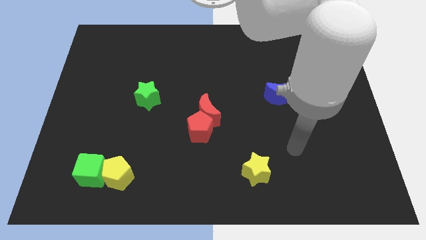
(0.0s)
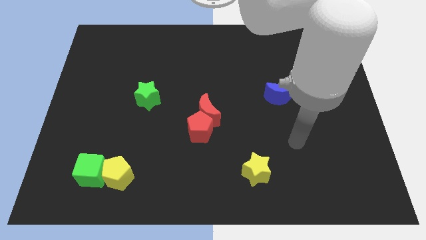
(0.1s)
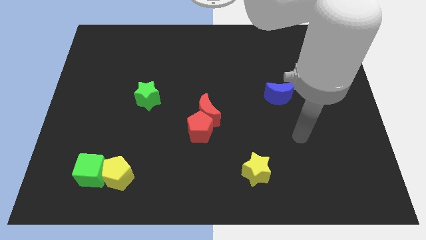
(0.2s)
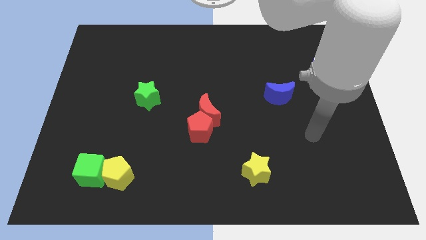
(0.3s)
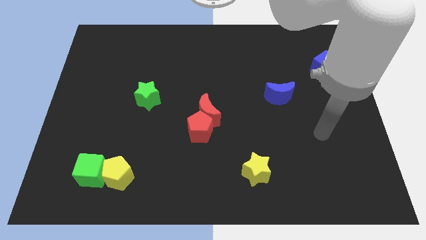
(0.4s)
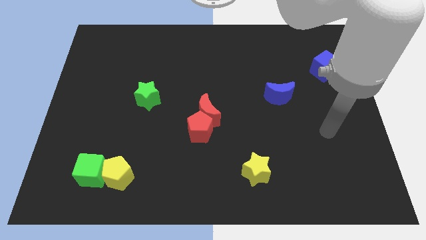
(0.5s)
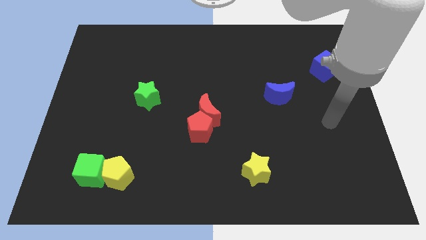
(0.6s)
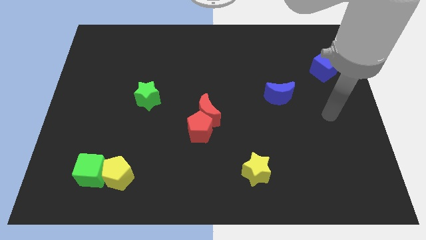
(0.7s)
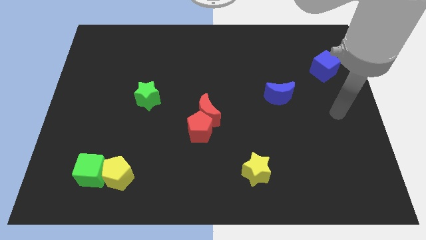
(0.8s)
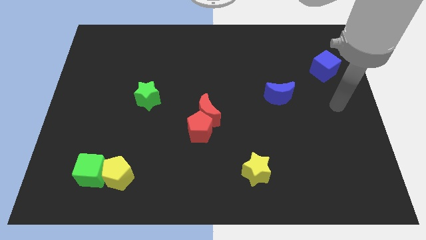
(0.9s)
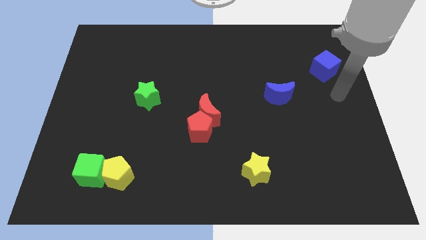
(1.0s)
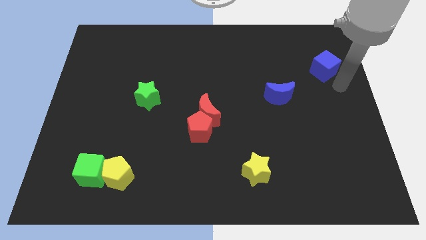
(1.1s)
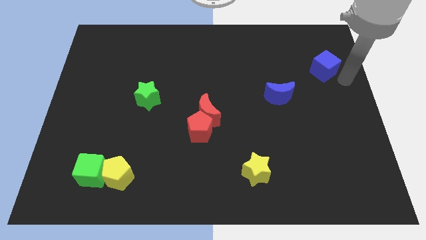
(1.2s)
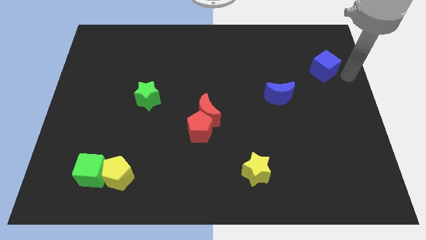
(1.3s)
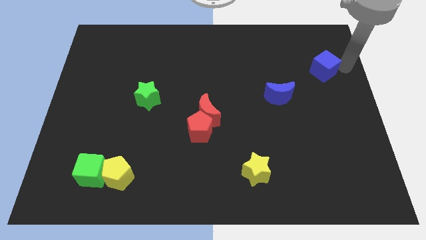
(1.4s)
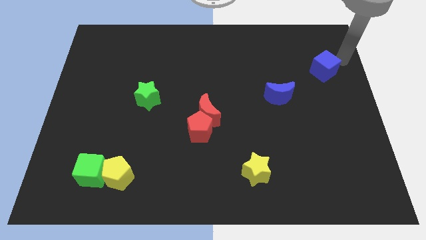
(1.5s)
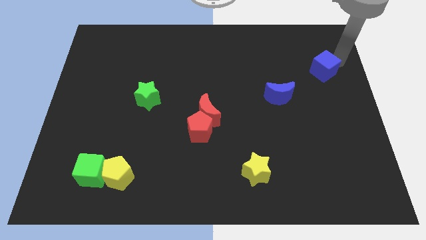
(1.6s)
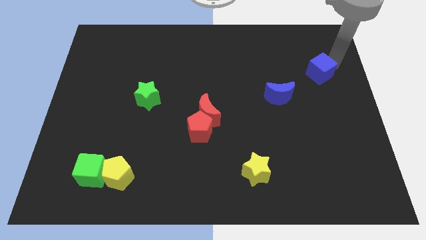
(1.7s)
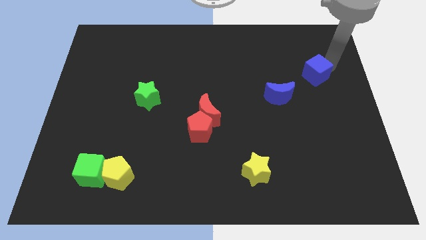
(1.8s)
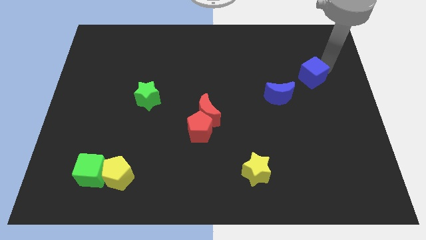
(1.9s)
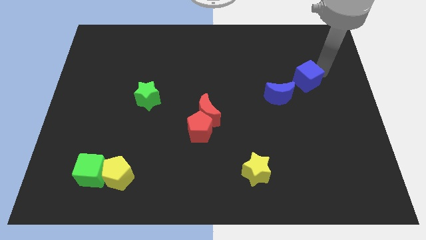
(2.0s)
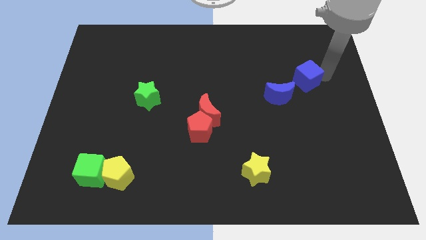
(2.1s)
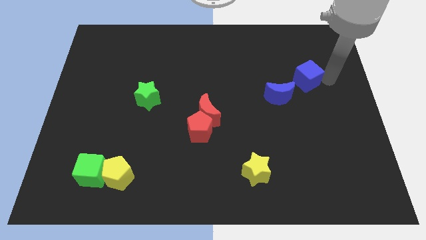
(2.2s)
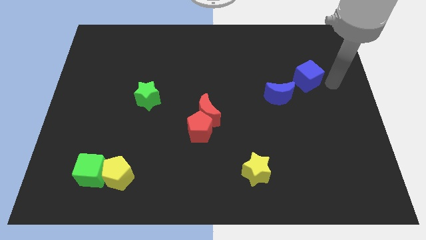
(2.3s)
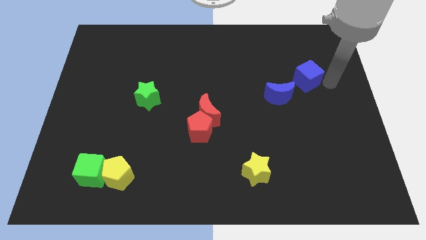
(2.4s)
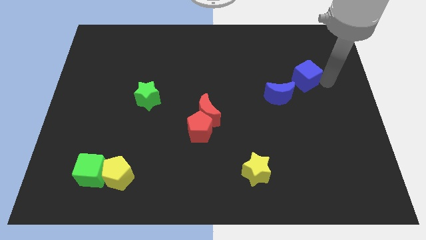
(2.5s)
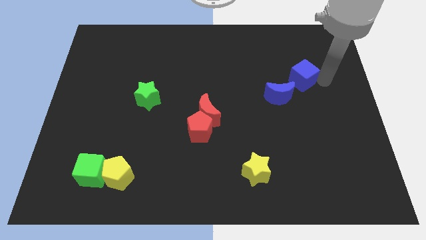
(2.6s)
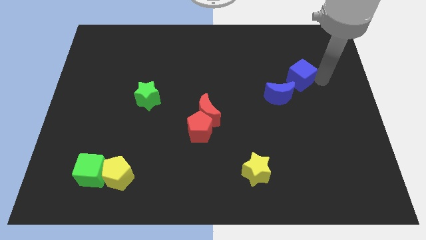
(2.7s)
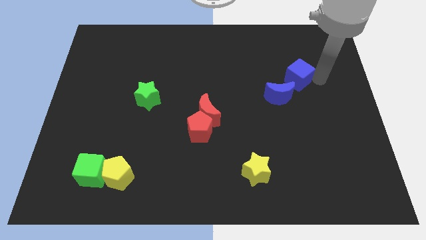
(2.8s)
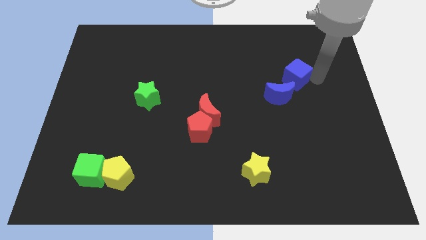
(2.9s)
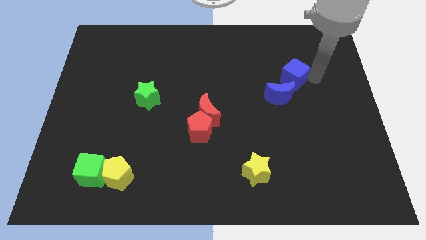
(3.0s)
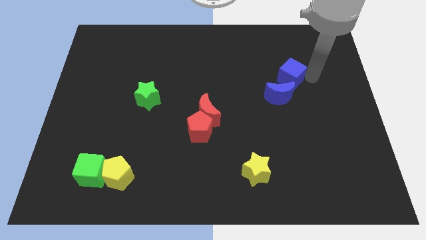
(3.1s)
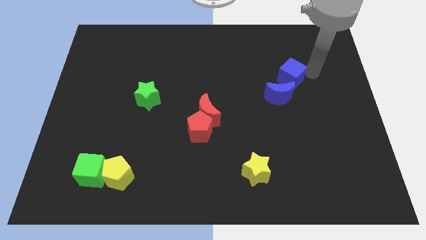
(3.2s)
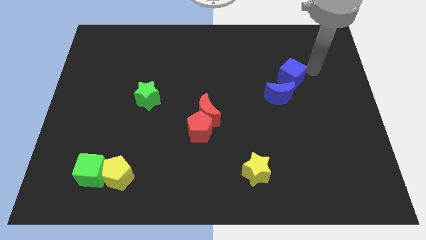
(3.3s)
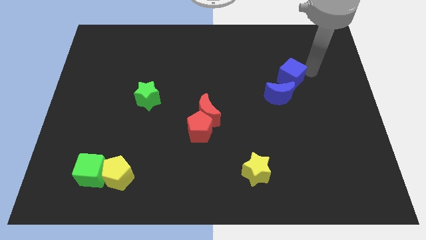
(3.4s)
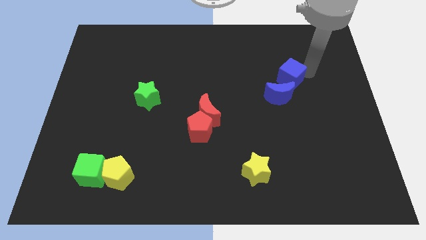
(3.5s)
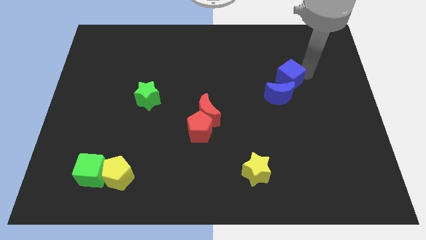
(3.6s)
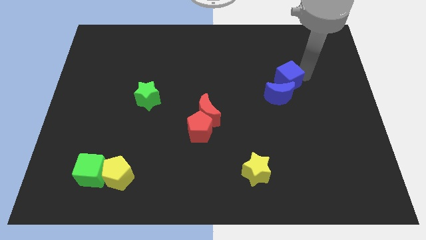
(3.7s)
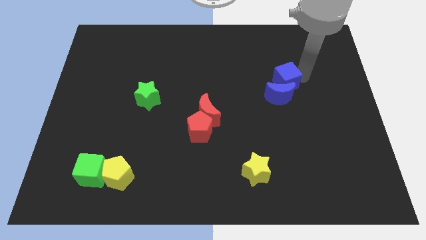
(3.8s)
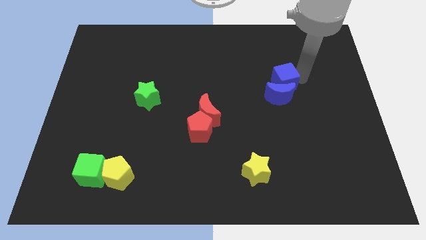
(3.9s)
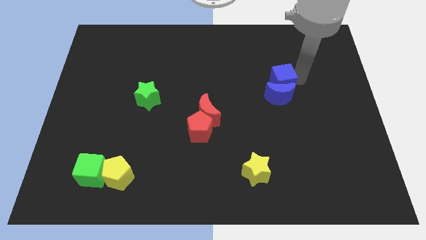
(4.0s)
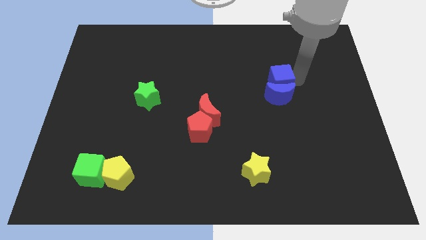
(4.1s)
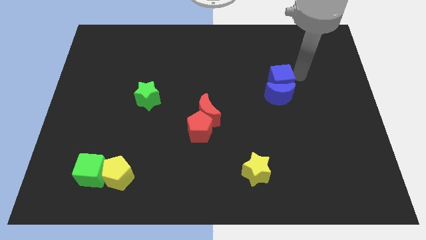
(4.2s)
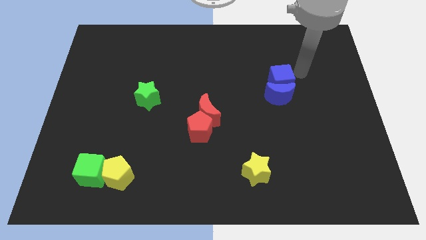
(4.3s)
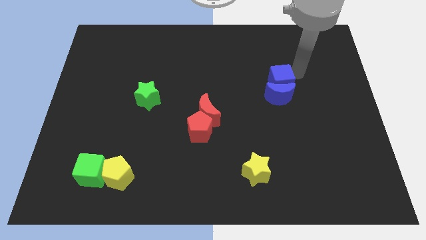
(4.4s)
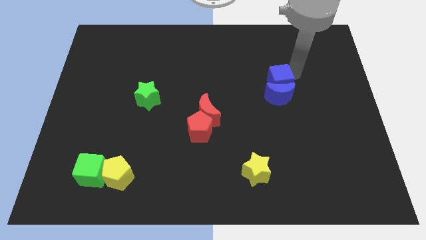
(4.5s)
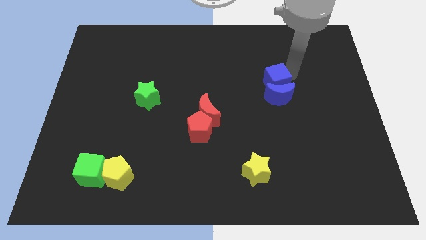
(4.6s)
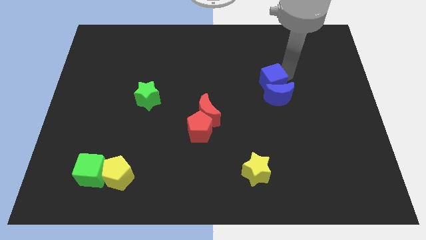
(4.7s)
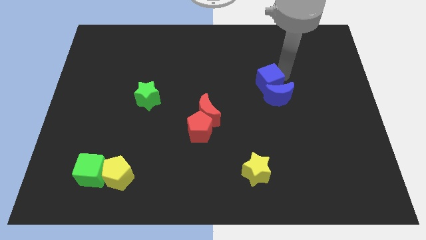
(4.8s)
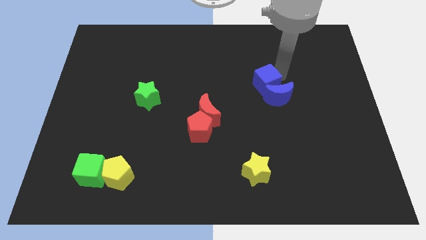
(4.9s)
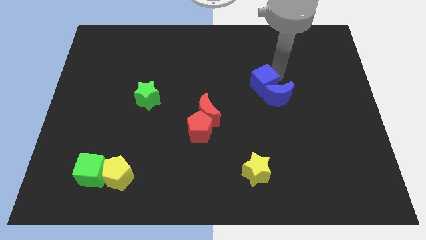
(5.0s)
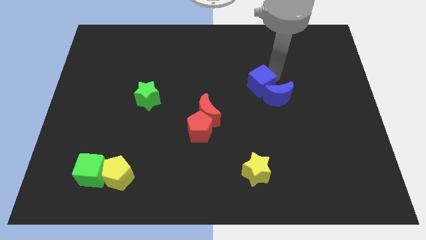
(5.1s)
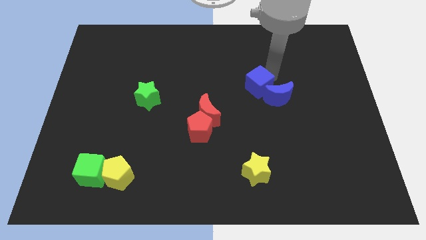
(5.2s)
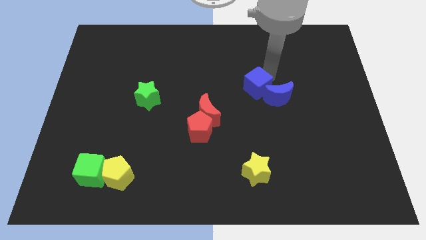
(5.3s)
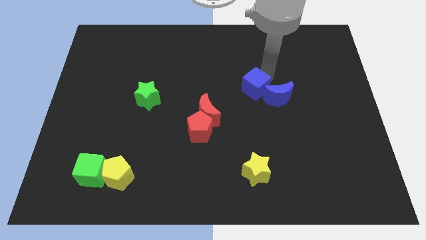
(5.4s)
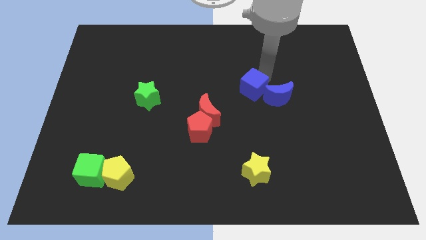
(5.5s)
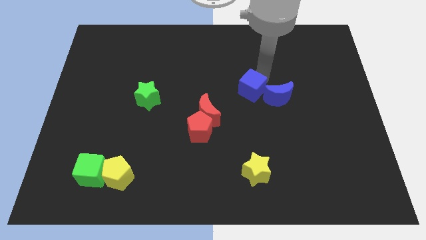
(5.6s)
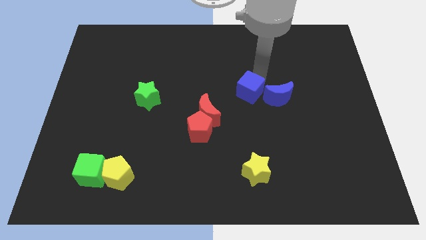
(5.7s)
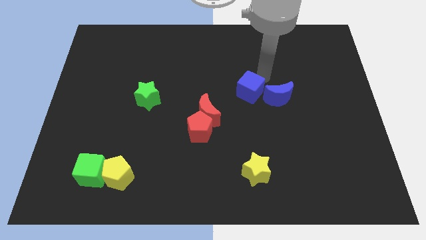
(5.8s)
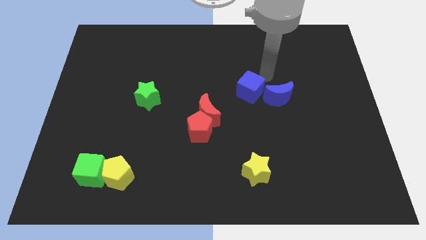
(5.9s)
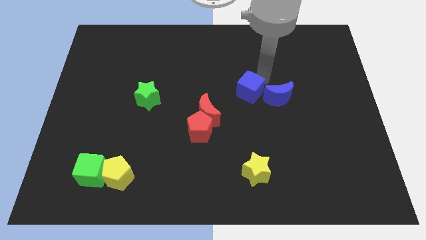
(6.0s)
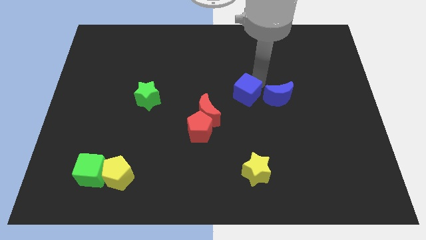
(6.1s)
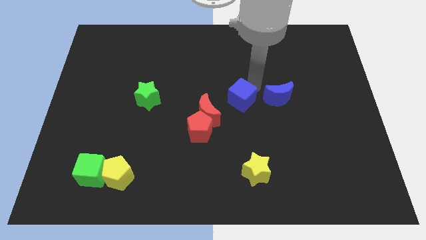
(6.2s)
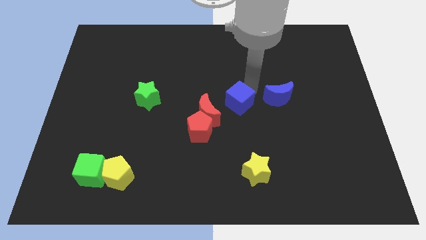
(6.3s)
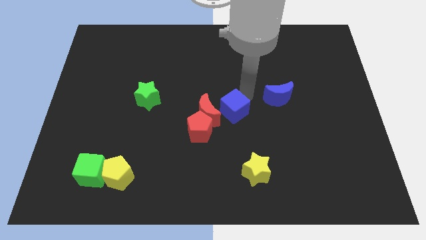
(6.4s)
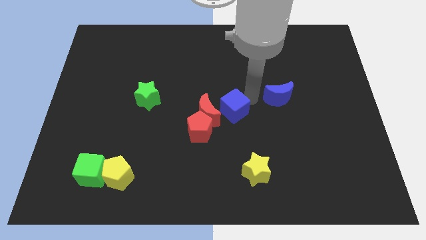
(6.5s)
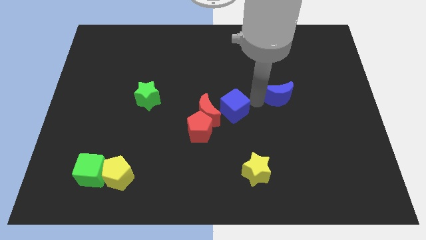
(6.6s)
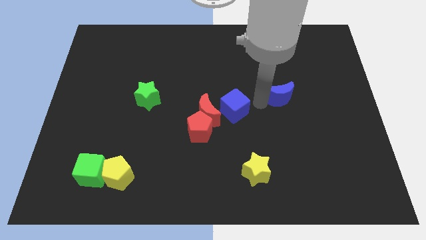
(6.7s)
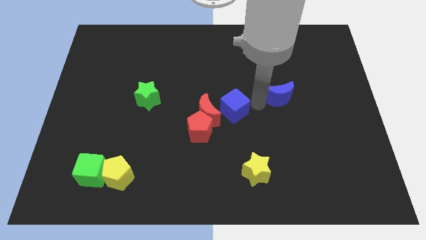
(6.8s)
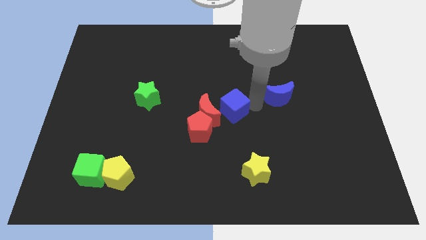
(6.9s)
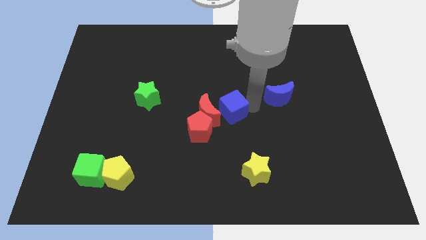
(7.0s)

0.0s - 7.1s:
push the blue cube close to the red moon

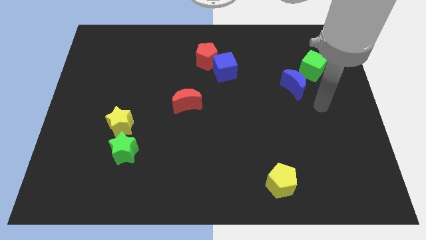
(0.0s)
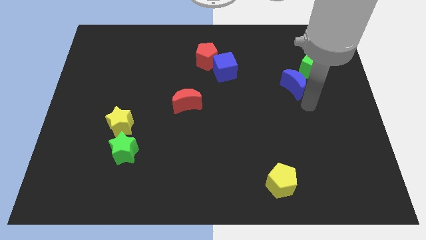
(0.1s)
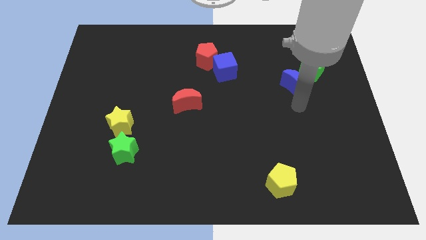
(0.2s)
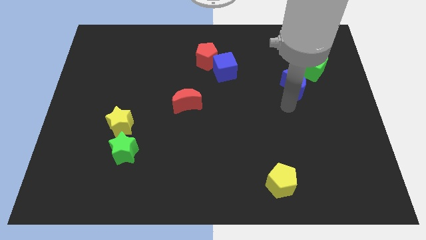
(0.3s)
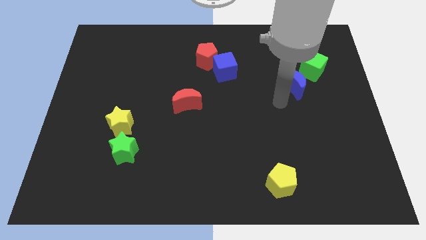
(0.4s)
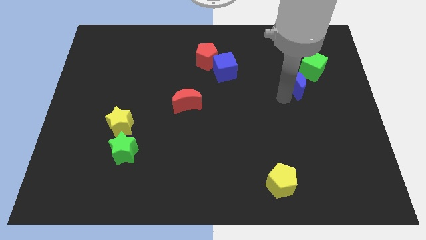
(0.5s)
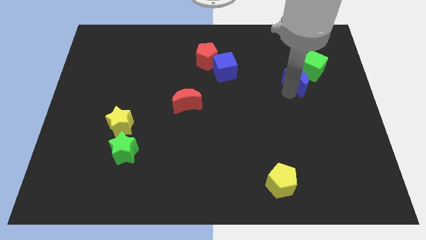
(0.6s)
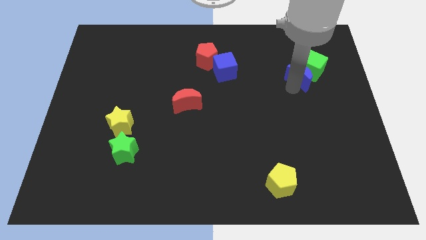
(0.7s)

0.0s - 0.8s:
put the blue moon towards the green cube
